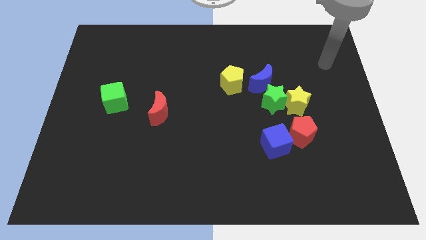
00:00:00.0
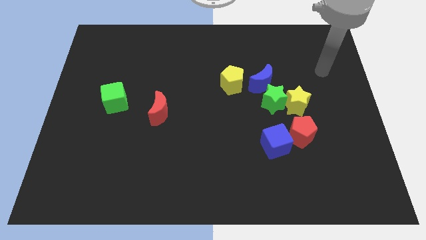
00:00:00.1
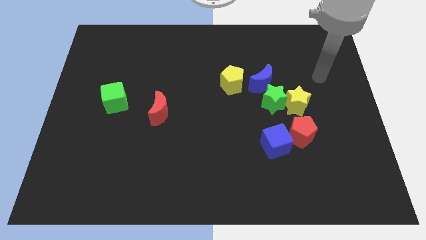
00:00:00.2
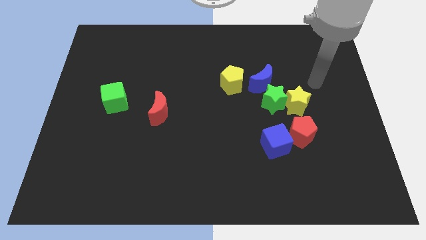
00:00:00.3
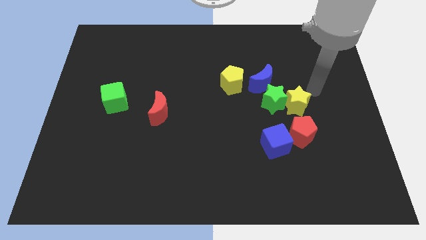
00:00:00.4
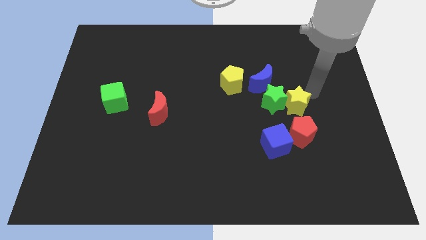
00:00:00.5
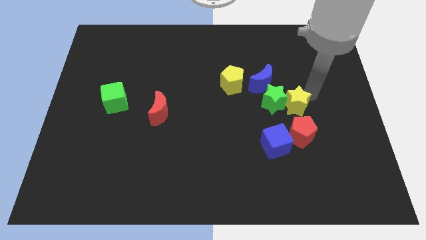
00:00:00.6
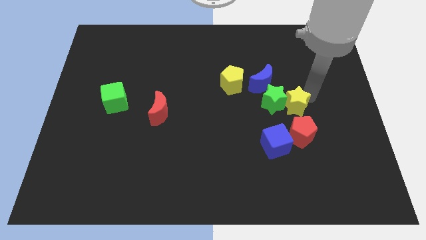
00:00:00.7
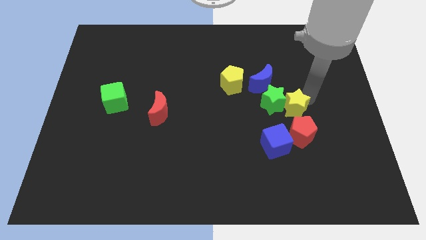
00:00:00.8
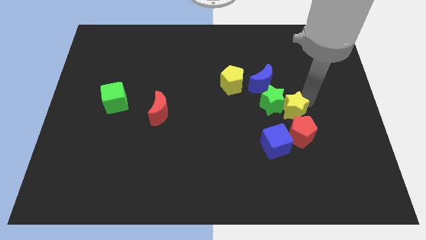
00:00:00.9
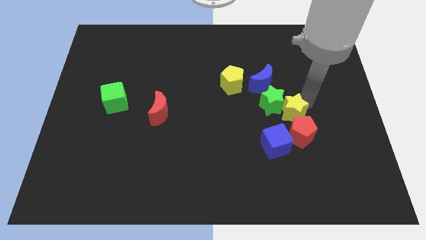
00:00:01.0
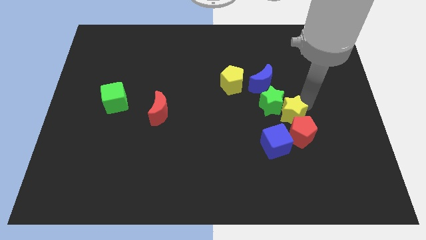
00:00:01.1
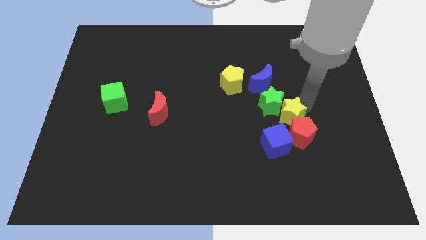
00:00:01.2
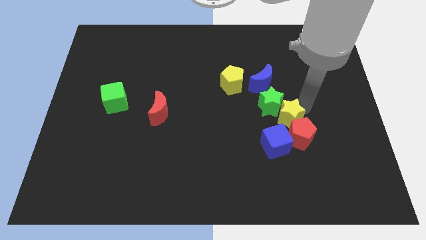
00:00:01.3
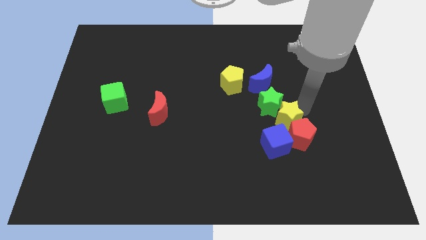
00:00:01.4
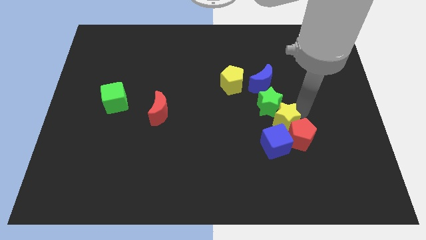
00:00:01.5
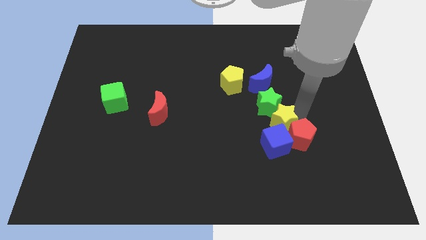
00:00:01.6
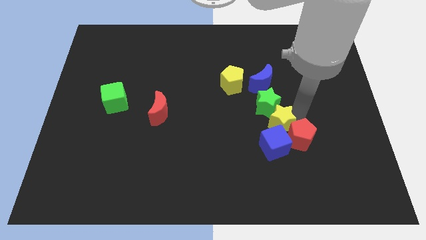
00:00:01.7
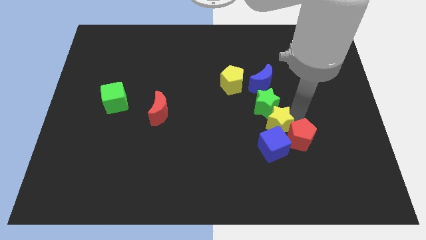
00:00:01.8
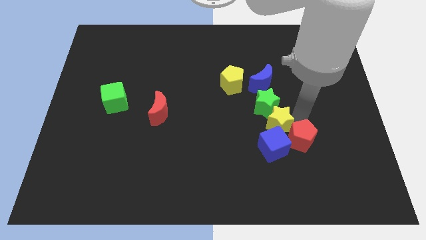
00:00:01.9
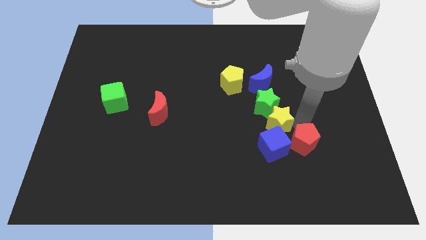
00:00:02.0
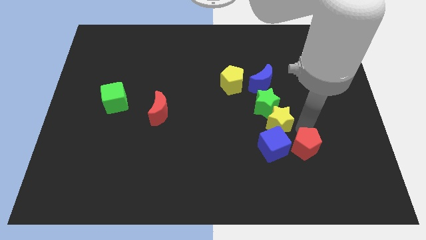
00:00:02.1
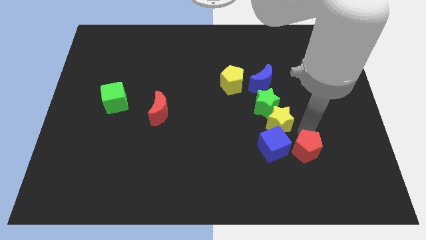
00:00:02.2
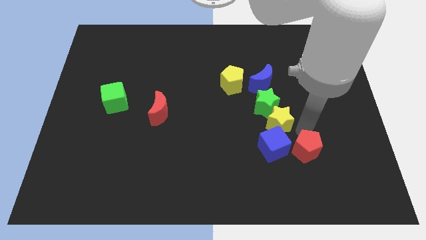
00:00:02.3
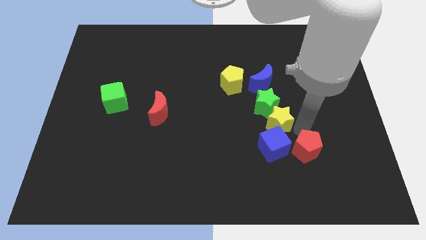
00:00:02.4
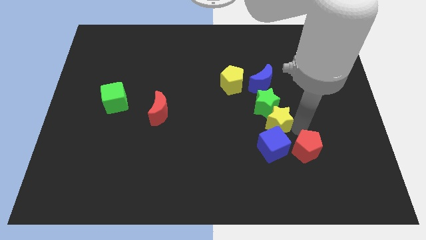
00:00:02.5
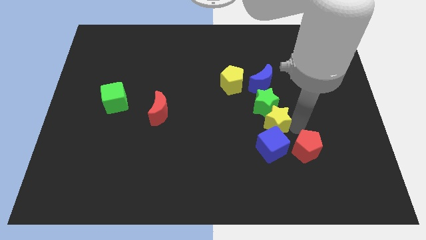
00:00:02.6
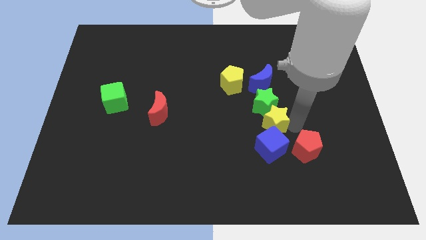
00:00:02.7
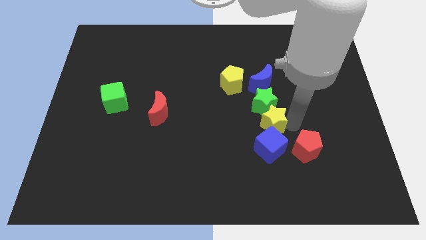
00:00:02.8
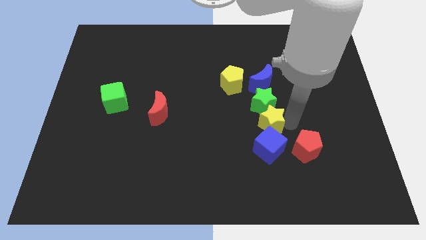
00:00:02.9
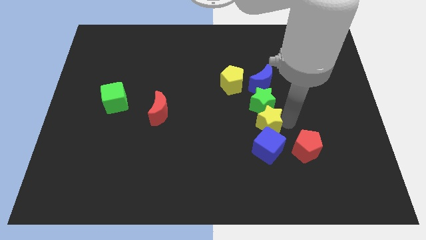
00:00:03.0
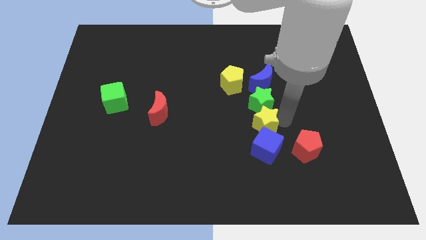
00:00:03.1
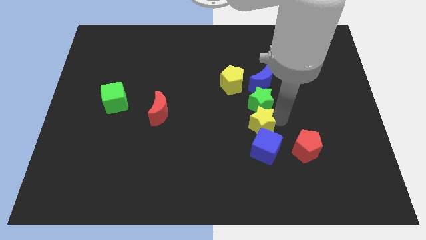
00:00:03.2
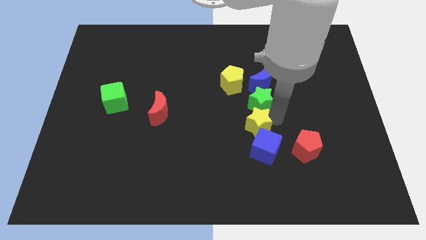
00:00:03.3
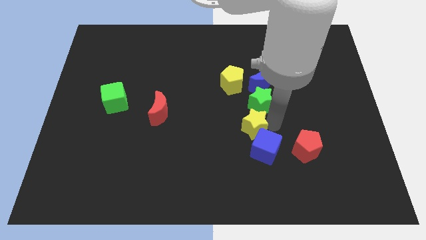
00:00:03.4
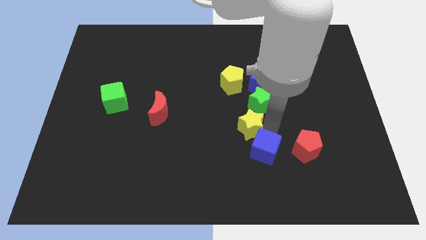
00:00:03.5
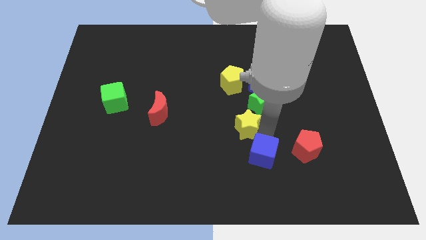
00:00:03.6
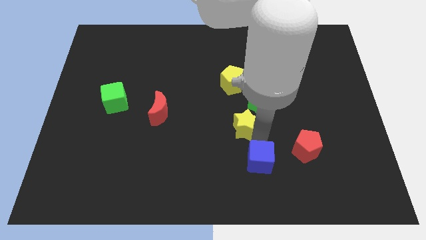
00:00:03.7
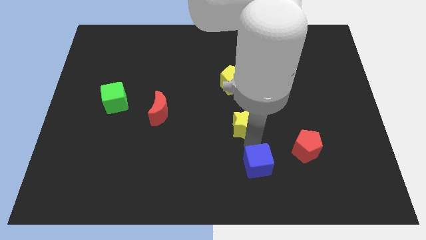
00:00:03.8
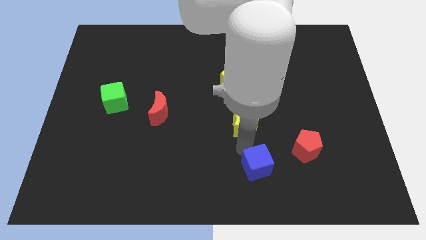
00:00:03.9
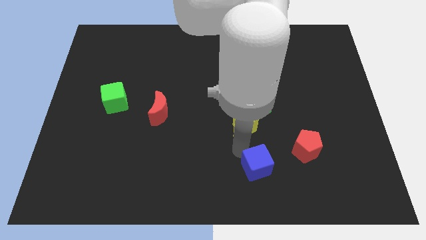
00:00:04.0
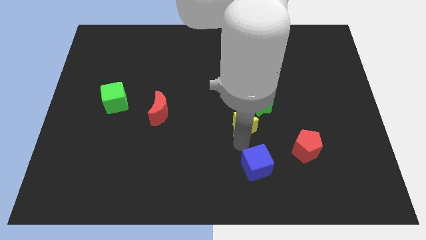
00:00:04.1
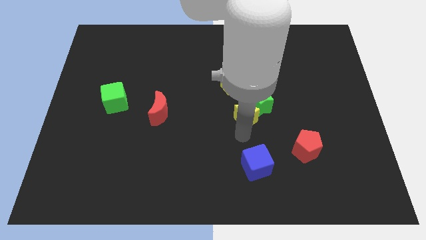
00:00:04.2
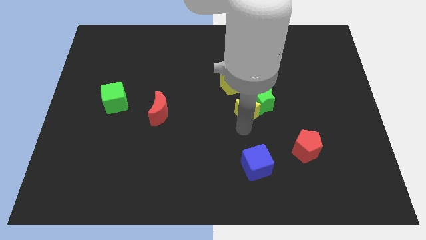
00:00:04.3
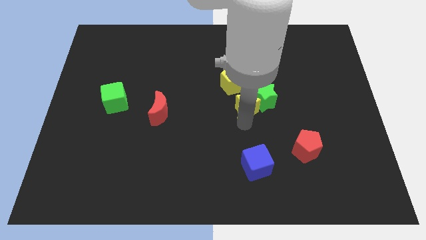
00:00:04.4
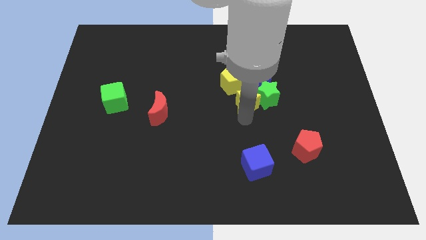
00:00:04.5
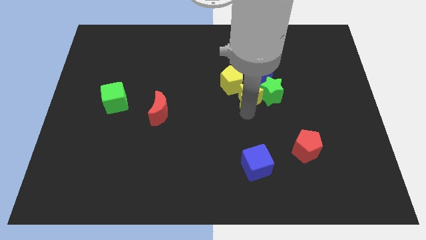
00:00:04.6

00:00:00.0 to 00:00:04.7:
push the yellow star to the yellow pentagon

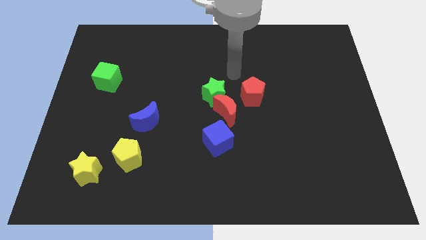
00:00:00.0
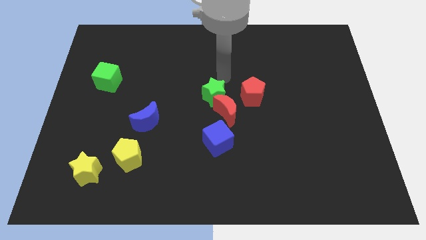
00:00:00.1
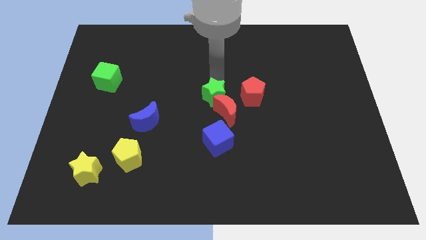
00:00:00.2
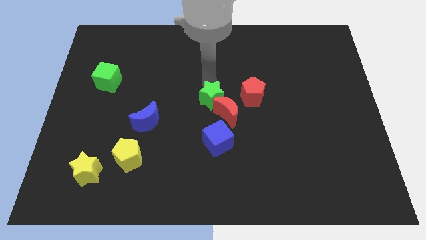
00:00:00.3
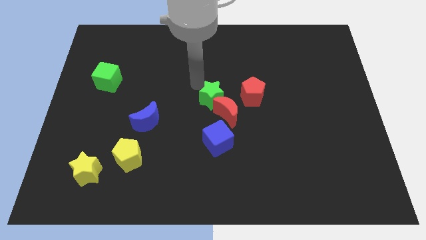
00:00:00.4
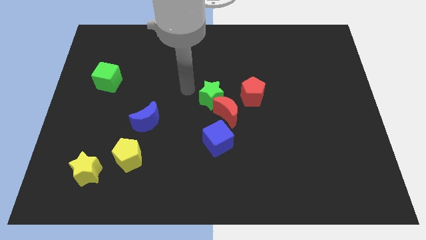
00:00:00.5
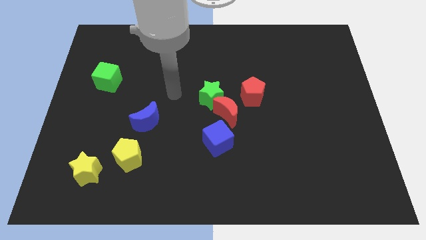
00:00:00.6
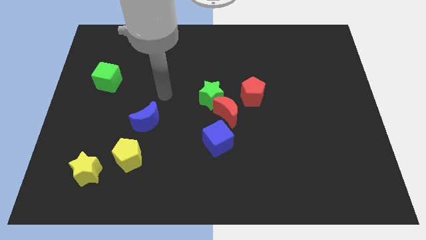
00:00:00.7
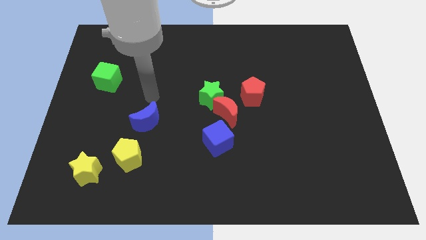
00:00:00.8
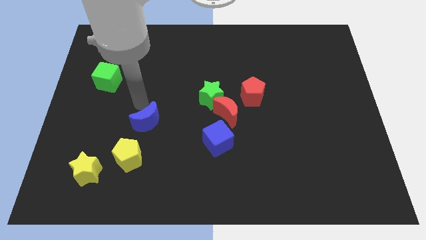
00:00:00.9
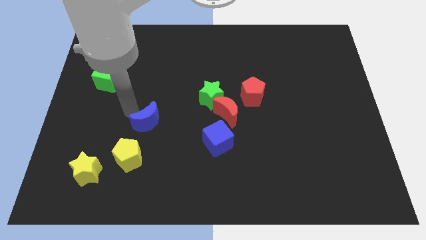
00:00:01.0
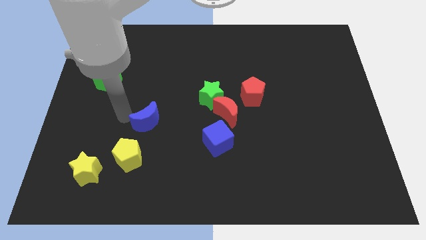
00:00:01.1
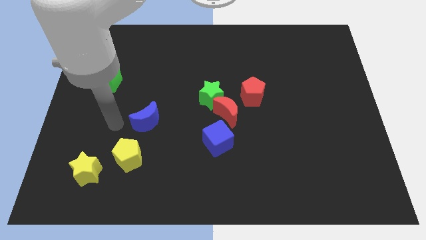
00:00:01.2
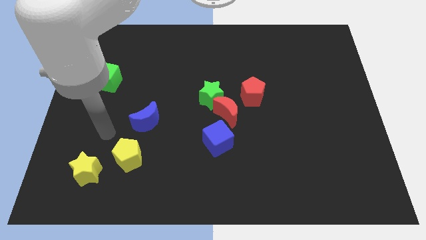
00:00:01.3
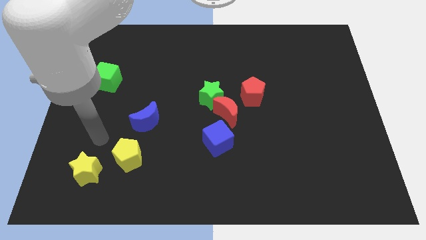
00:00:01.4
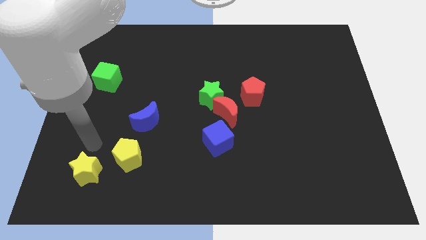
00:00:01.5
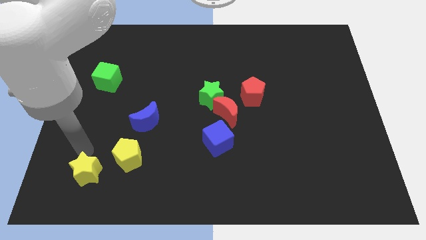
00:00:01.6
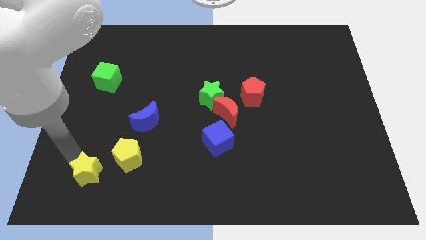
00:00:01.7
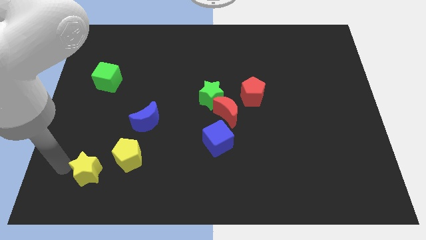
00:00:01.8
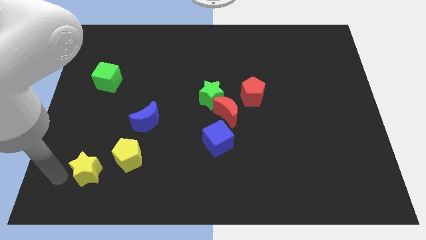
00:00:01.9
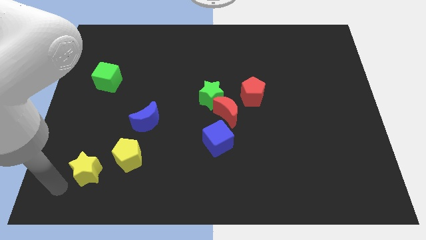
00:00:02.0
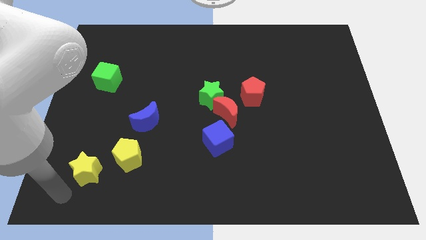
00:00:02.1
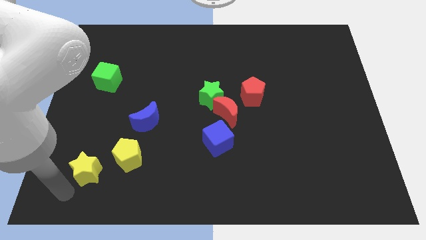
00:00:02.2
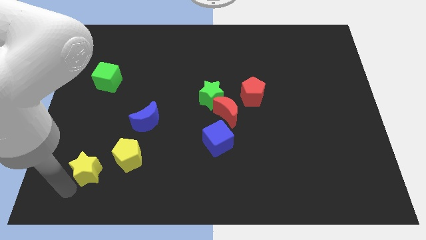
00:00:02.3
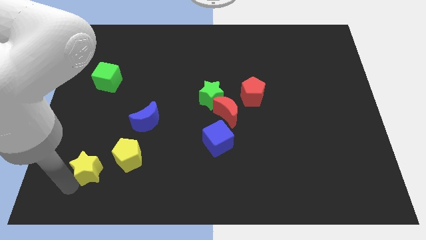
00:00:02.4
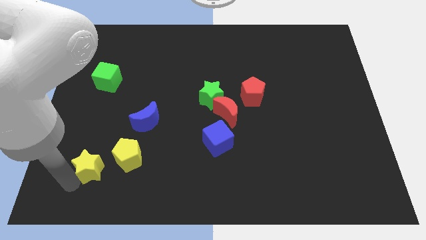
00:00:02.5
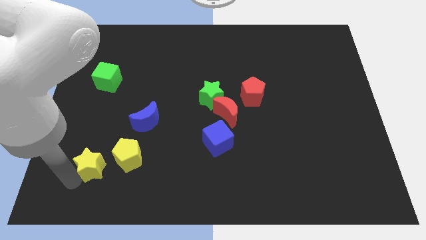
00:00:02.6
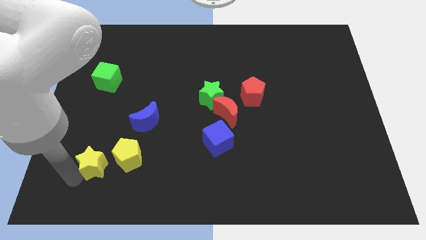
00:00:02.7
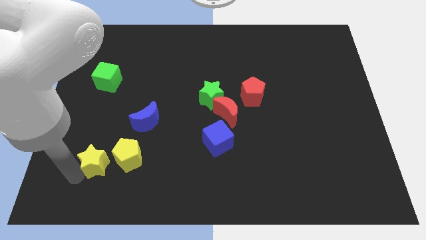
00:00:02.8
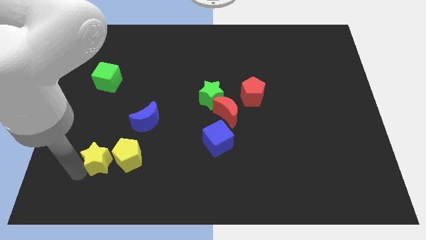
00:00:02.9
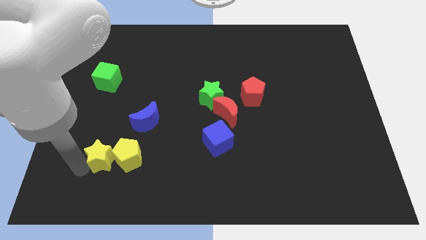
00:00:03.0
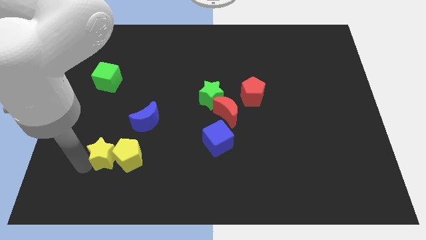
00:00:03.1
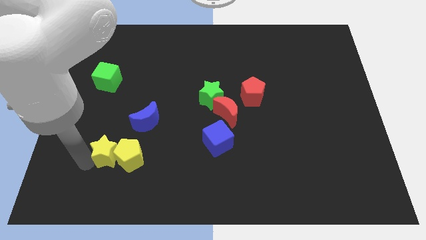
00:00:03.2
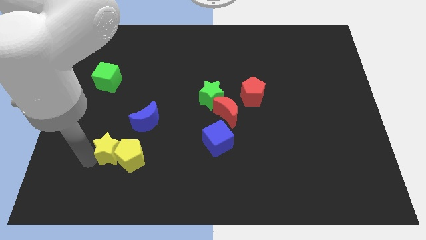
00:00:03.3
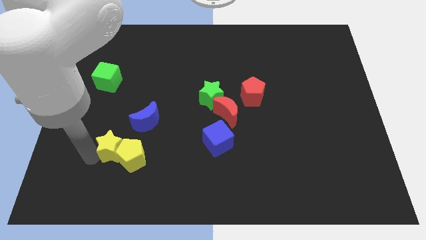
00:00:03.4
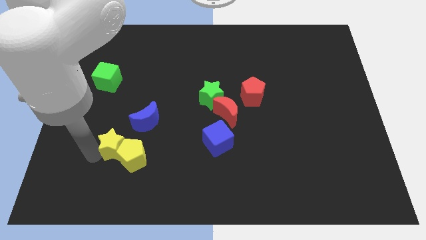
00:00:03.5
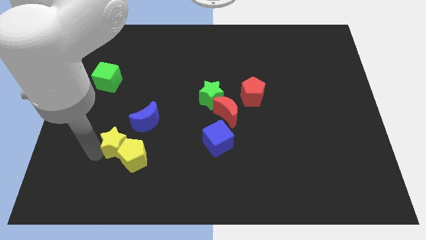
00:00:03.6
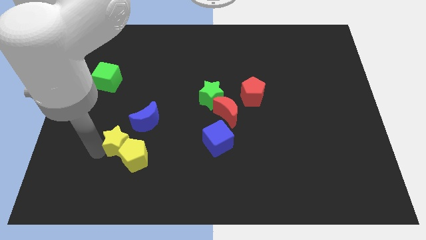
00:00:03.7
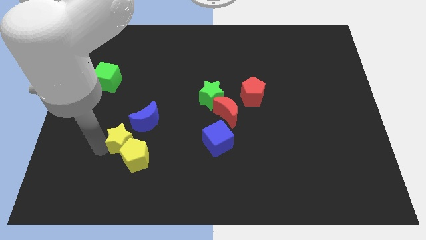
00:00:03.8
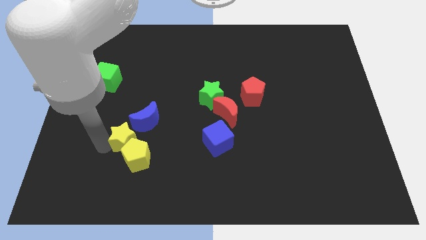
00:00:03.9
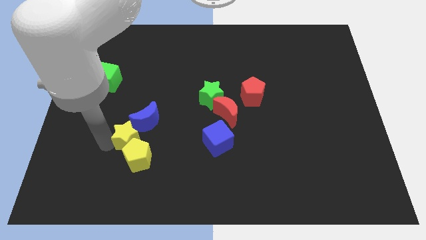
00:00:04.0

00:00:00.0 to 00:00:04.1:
slide the yellow star towards the blue moon
